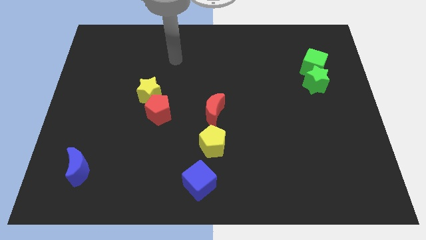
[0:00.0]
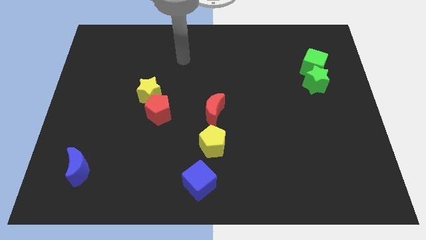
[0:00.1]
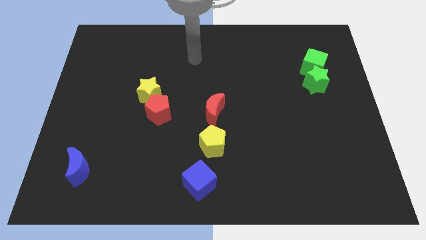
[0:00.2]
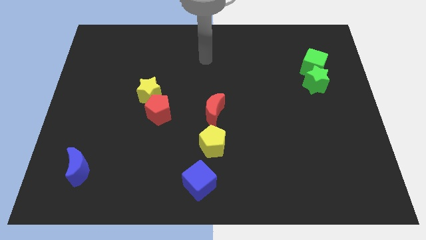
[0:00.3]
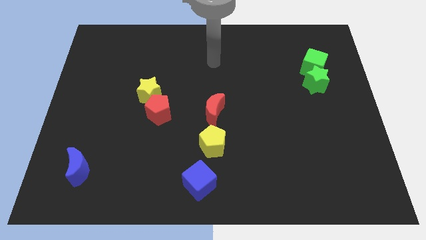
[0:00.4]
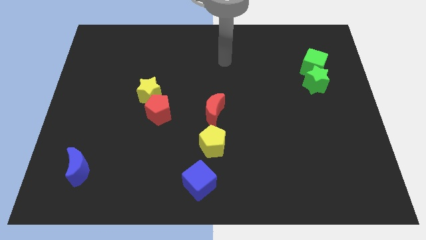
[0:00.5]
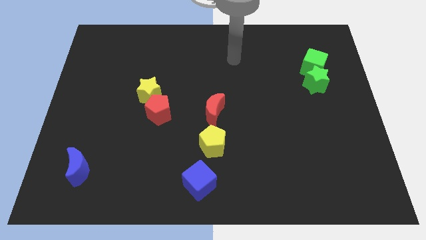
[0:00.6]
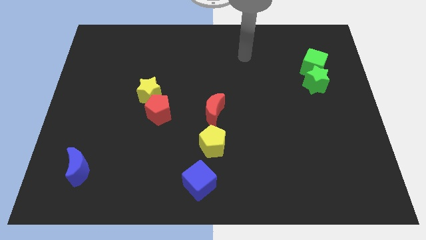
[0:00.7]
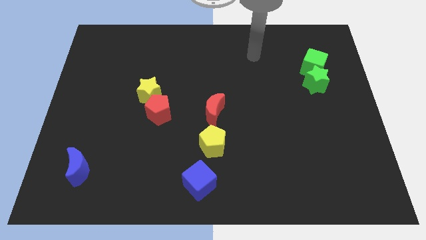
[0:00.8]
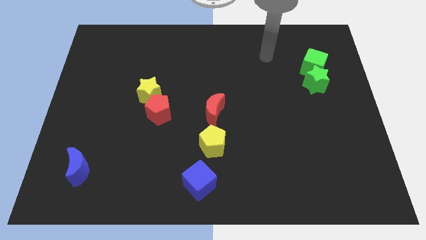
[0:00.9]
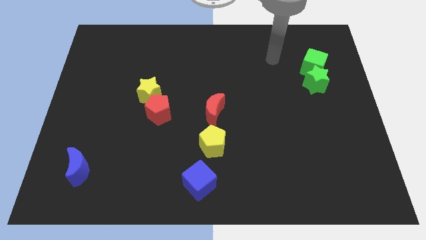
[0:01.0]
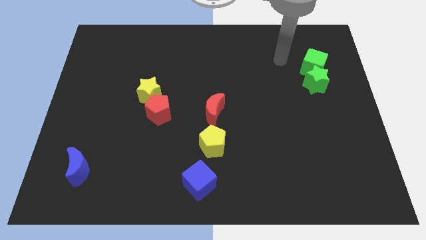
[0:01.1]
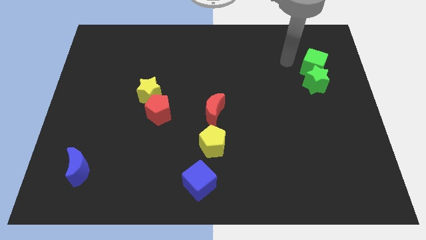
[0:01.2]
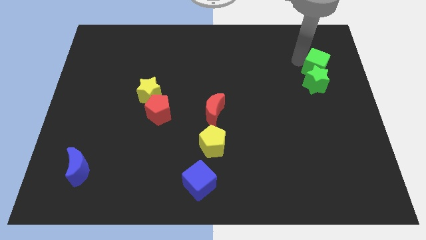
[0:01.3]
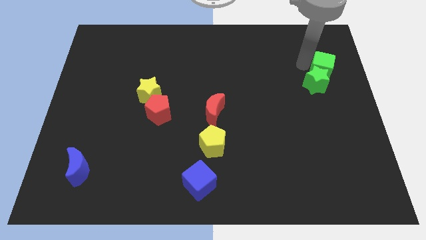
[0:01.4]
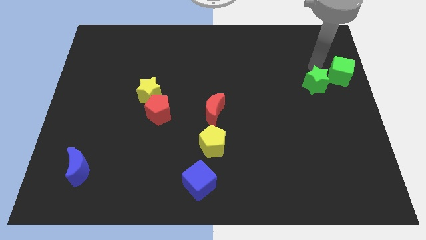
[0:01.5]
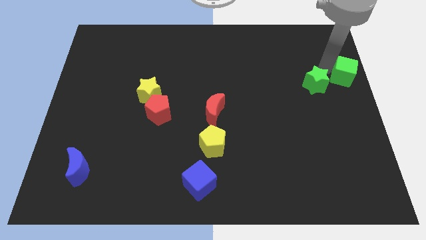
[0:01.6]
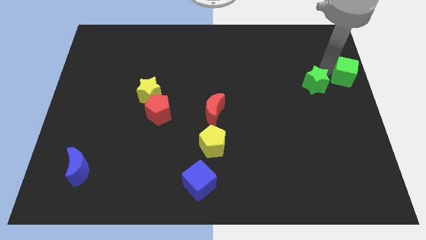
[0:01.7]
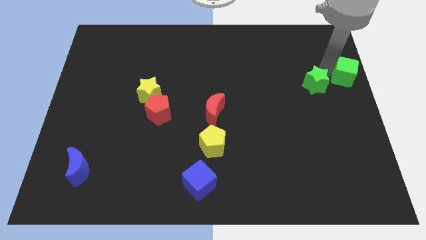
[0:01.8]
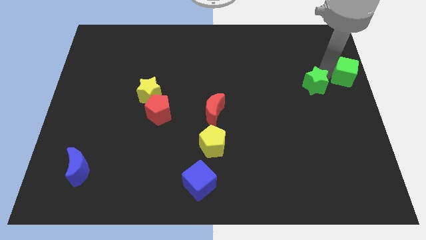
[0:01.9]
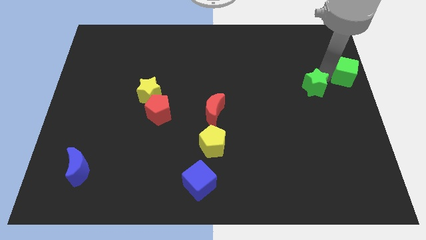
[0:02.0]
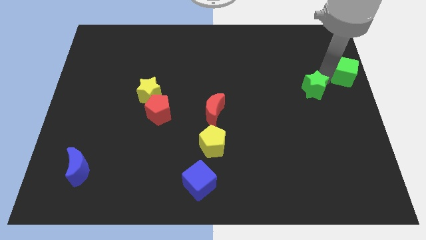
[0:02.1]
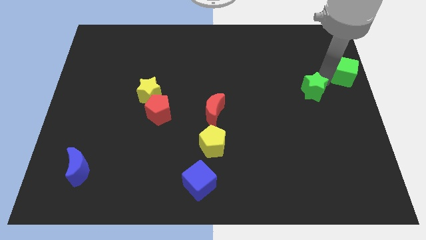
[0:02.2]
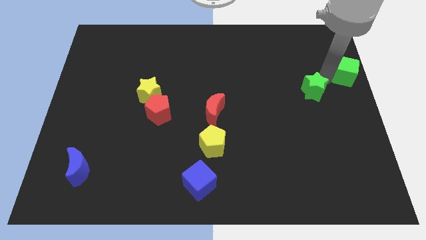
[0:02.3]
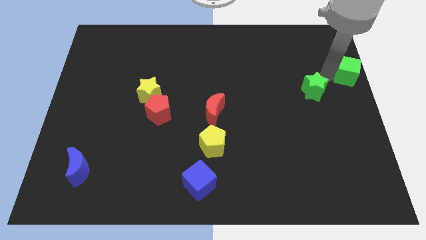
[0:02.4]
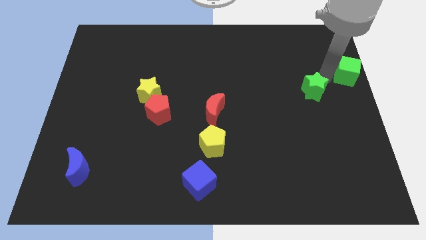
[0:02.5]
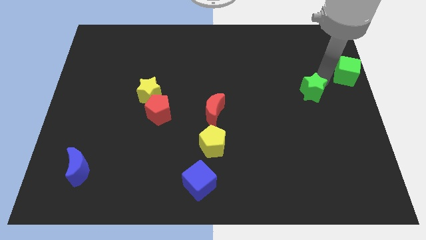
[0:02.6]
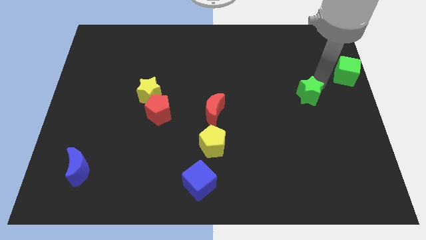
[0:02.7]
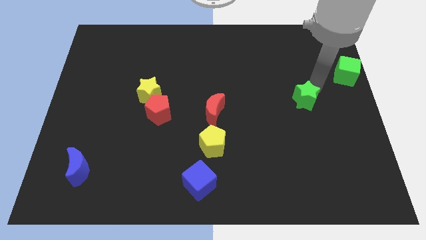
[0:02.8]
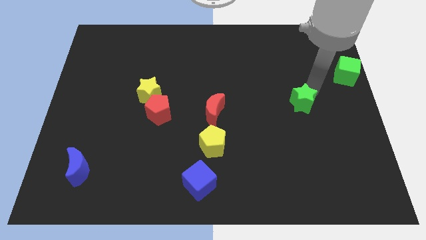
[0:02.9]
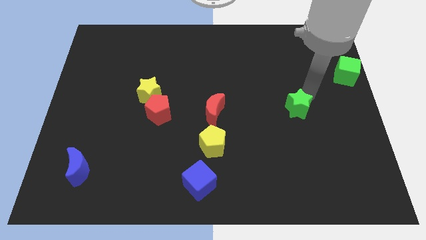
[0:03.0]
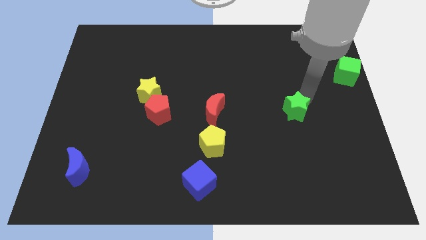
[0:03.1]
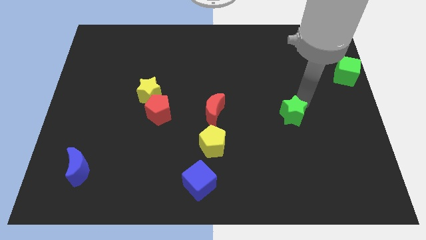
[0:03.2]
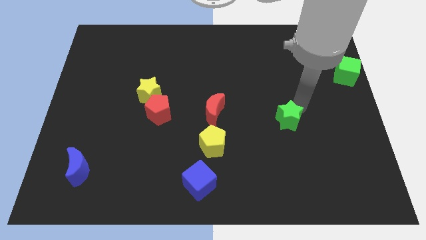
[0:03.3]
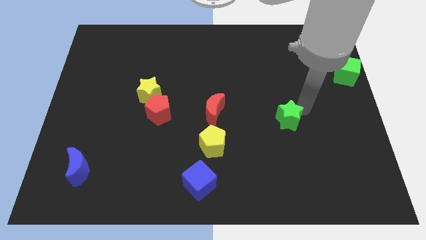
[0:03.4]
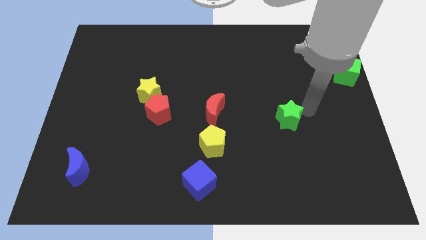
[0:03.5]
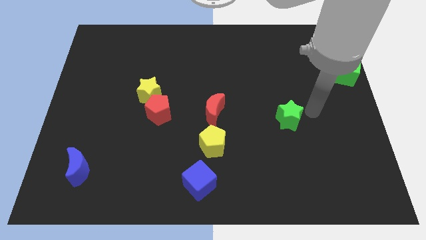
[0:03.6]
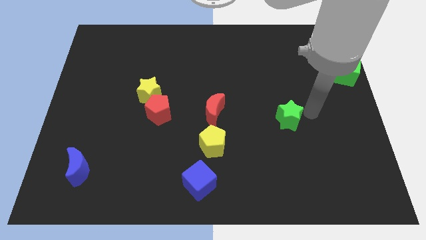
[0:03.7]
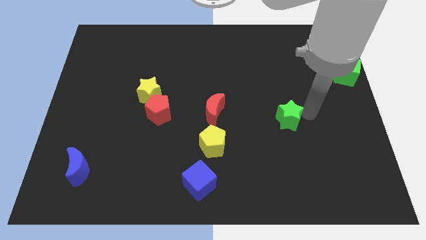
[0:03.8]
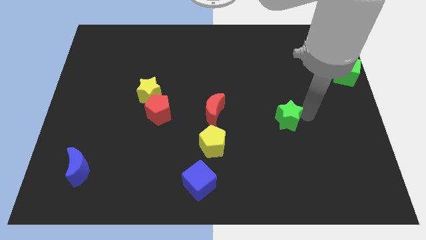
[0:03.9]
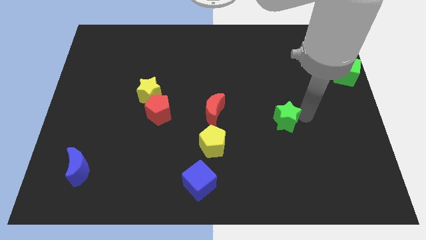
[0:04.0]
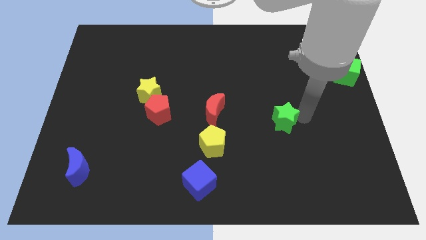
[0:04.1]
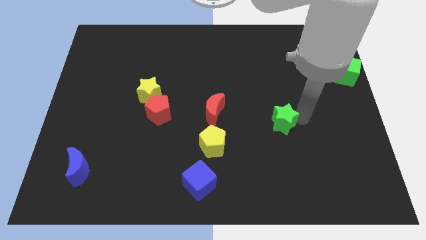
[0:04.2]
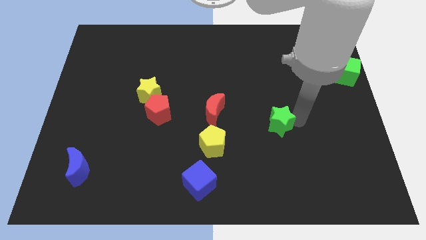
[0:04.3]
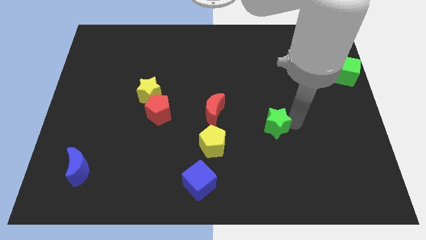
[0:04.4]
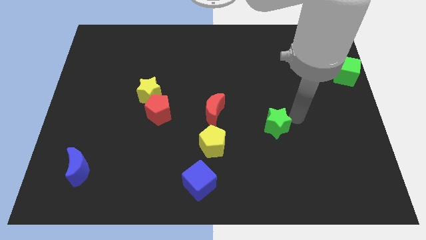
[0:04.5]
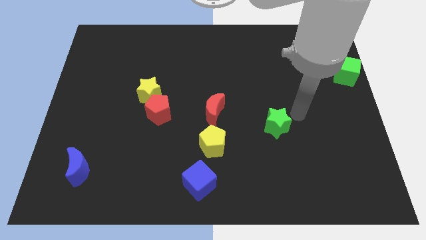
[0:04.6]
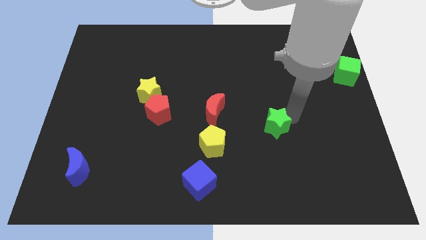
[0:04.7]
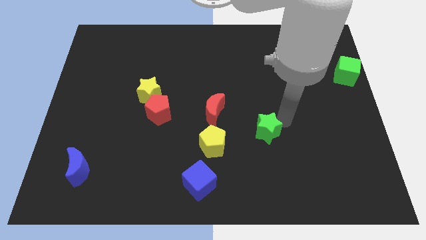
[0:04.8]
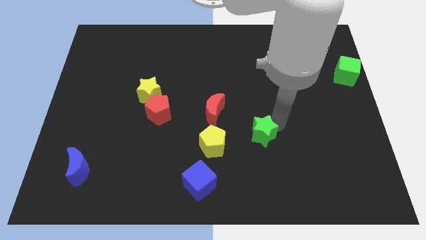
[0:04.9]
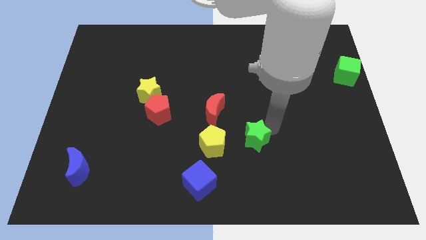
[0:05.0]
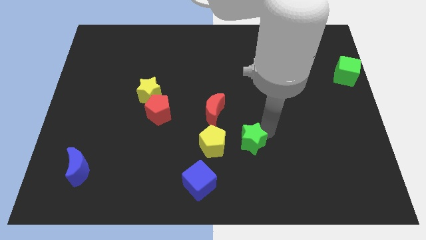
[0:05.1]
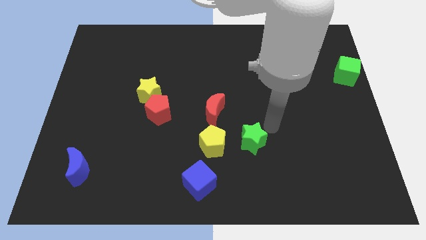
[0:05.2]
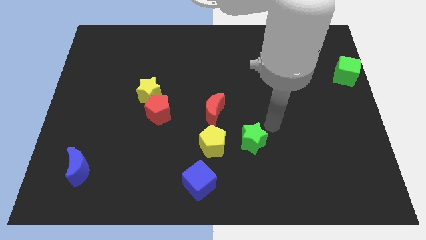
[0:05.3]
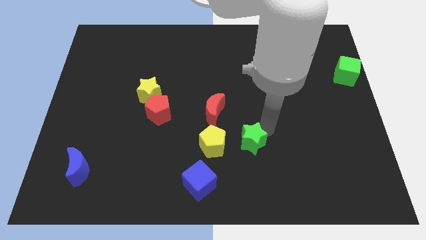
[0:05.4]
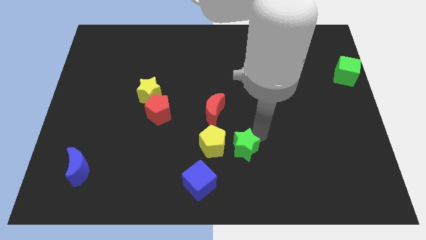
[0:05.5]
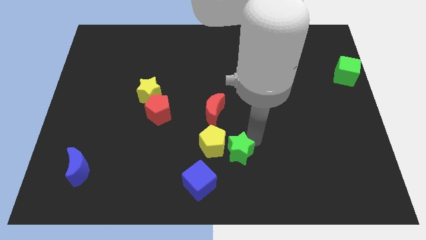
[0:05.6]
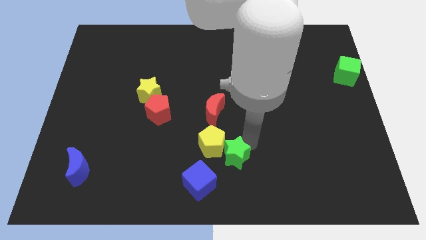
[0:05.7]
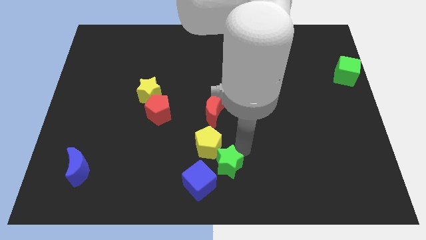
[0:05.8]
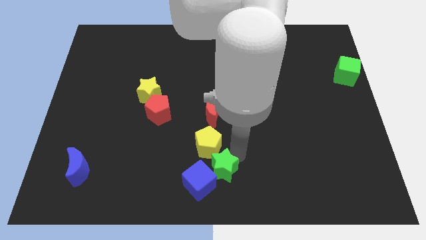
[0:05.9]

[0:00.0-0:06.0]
push the green star close to the blue cube

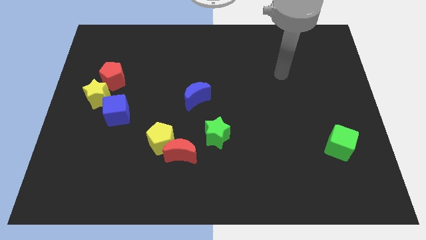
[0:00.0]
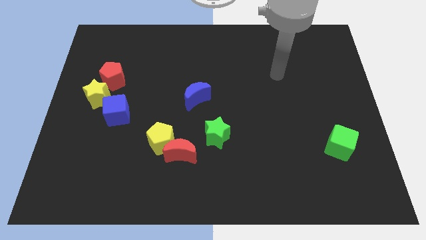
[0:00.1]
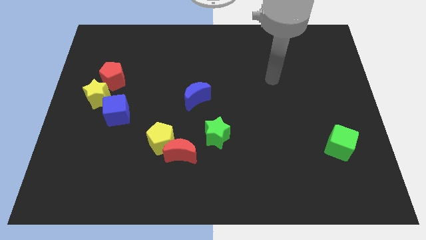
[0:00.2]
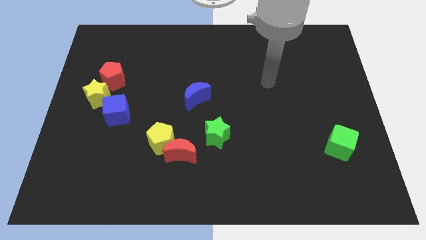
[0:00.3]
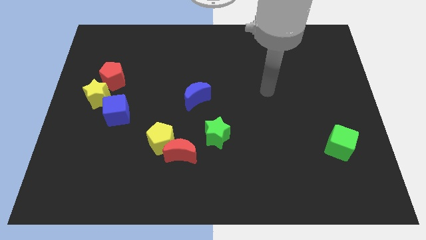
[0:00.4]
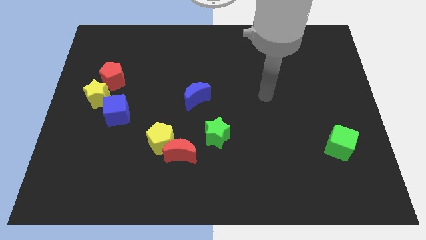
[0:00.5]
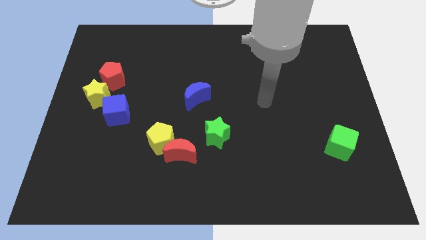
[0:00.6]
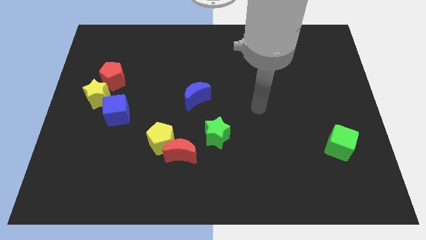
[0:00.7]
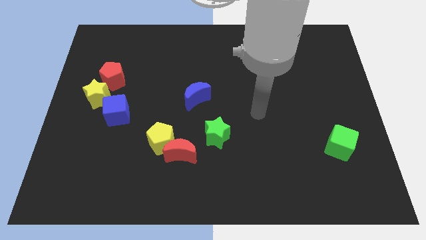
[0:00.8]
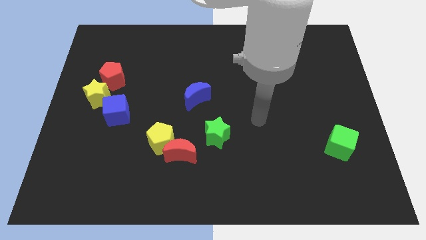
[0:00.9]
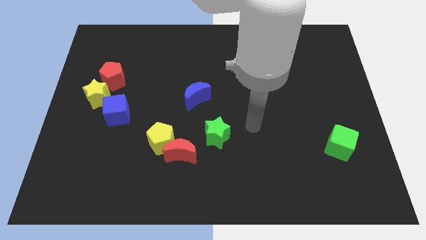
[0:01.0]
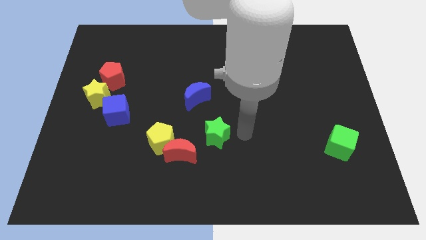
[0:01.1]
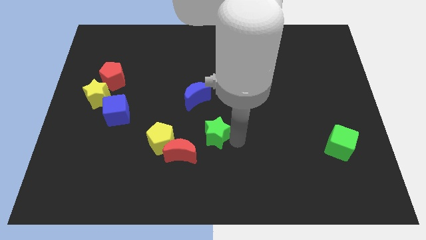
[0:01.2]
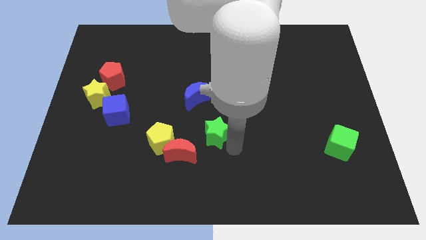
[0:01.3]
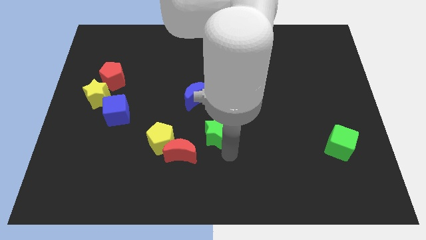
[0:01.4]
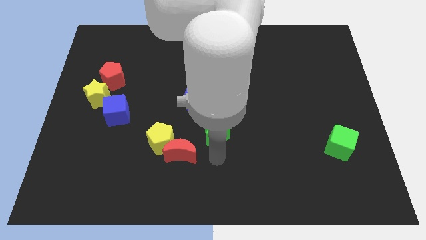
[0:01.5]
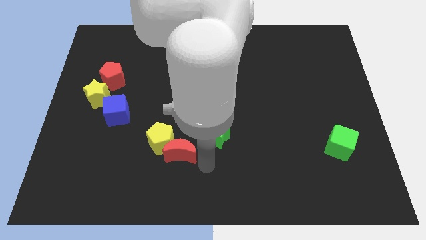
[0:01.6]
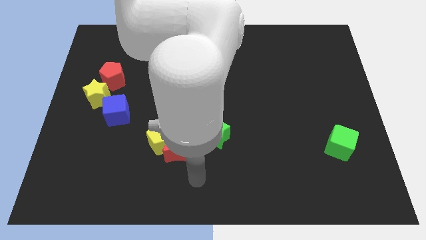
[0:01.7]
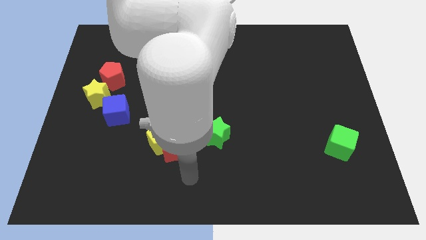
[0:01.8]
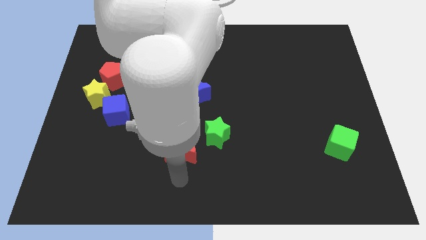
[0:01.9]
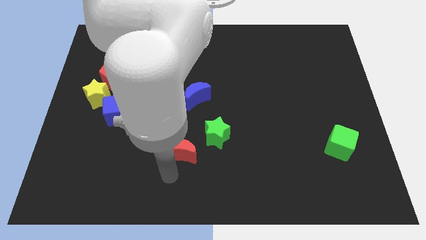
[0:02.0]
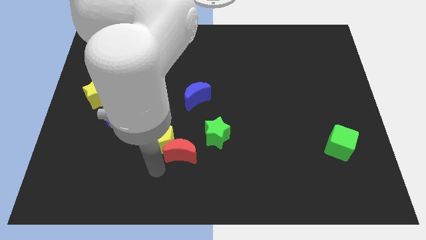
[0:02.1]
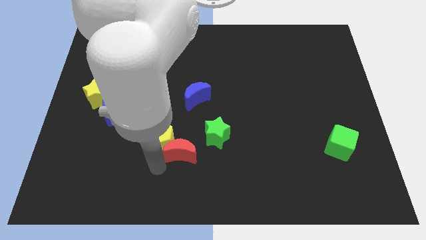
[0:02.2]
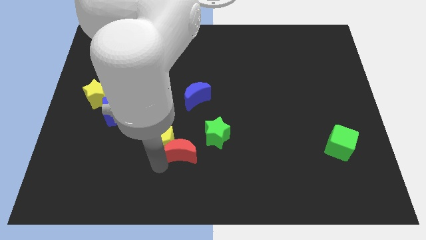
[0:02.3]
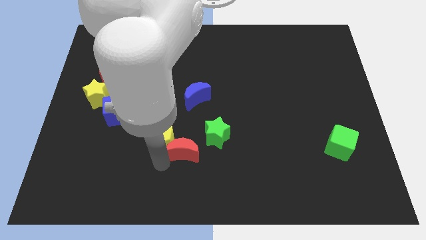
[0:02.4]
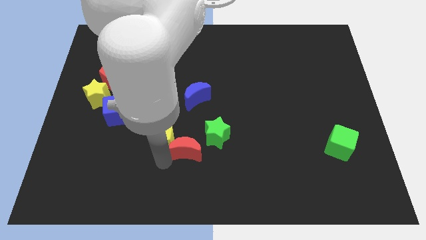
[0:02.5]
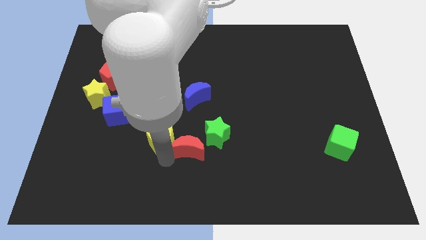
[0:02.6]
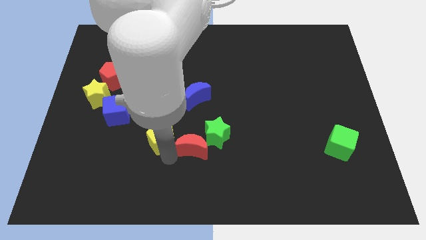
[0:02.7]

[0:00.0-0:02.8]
push the red moon close to the green star
